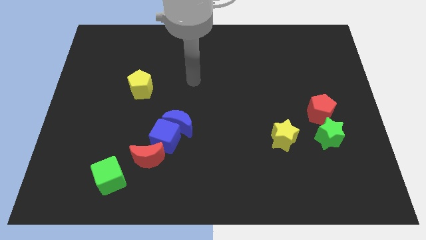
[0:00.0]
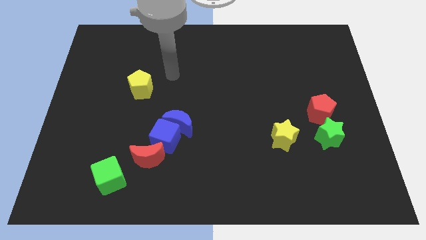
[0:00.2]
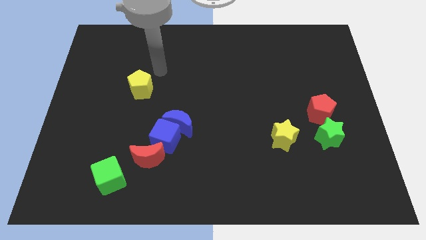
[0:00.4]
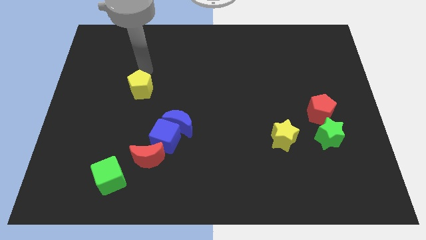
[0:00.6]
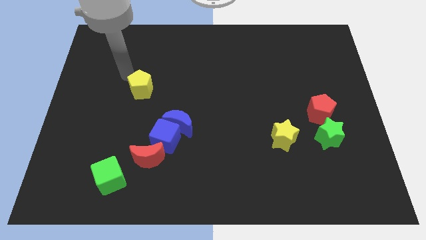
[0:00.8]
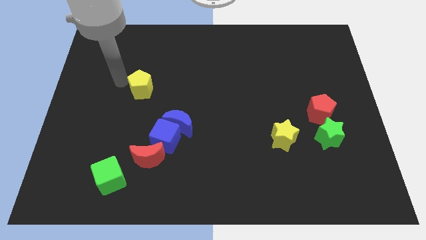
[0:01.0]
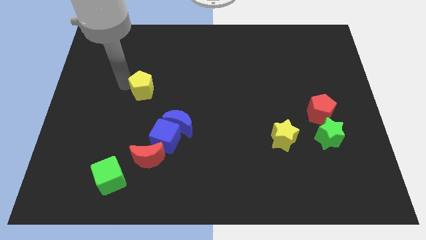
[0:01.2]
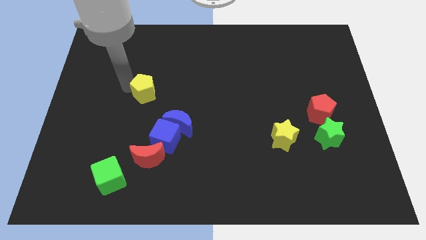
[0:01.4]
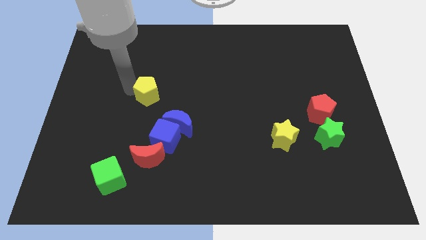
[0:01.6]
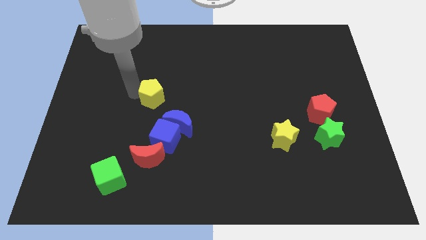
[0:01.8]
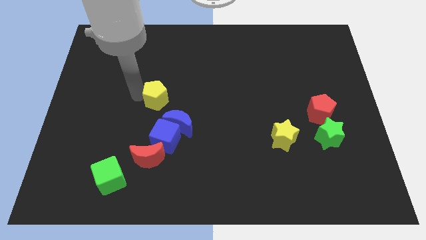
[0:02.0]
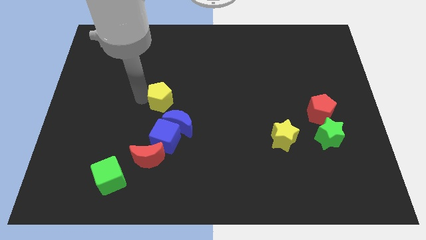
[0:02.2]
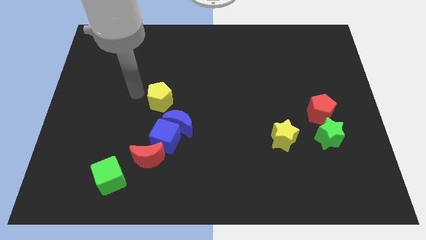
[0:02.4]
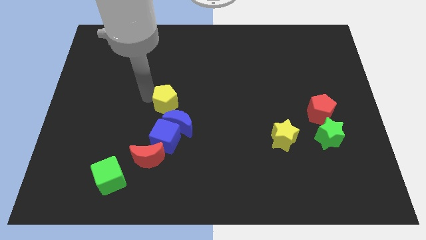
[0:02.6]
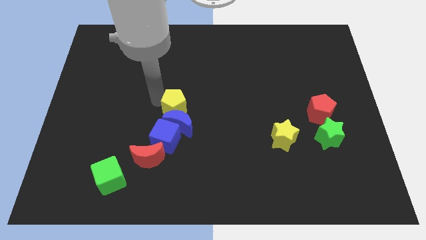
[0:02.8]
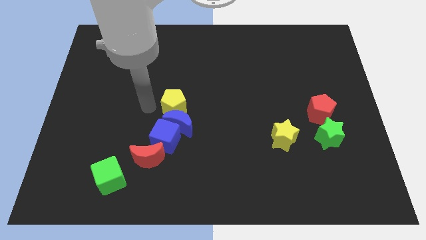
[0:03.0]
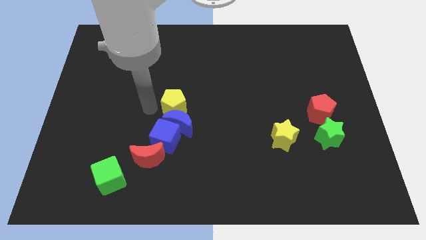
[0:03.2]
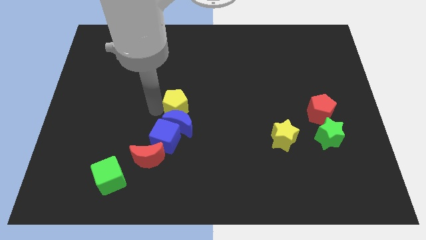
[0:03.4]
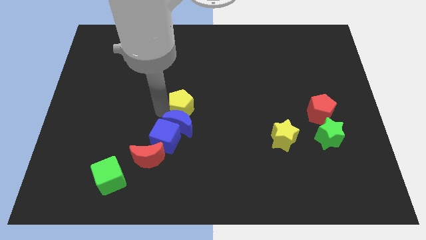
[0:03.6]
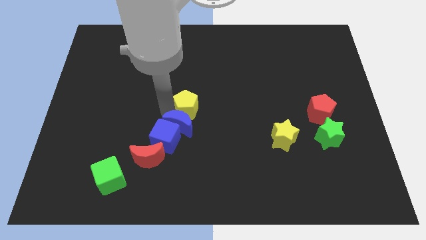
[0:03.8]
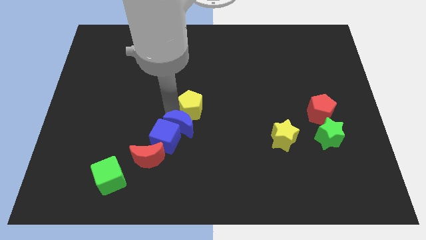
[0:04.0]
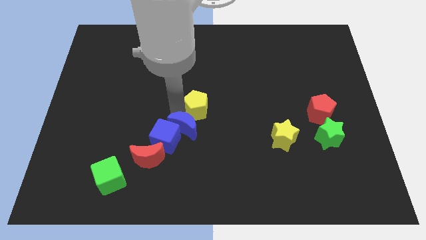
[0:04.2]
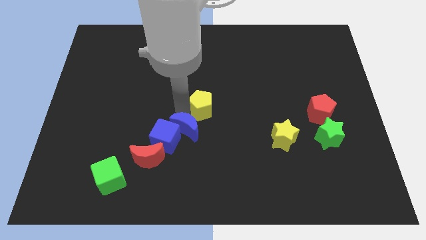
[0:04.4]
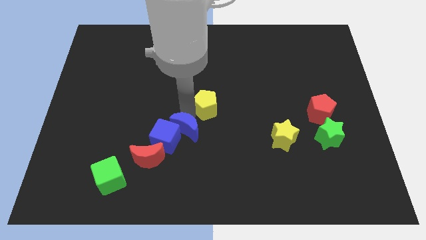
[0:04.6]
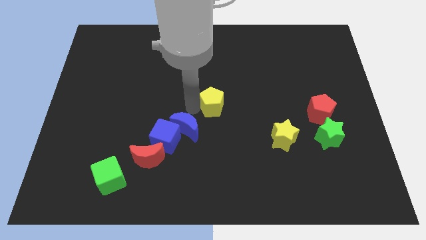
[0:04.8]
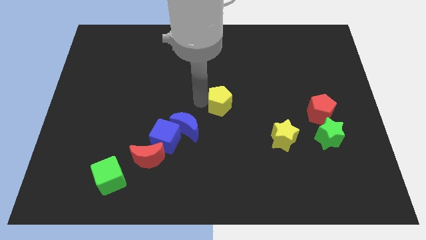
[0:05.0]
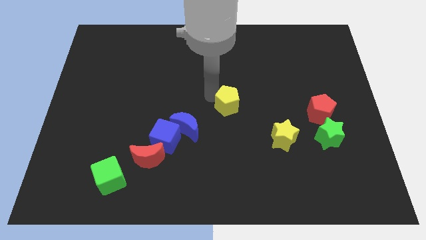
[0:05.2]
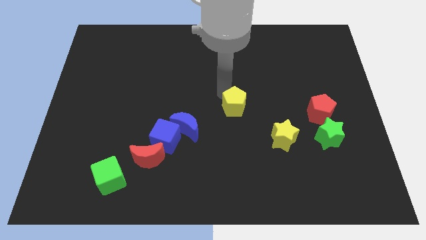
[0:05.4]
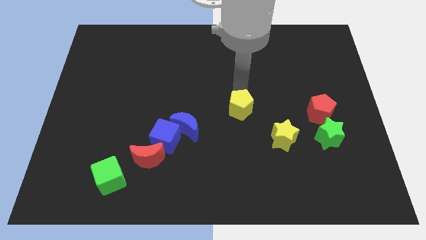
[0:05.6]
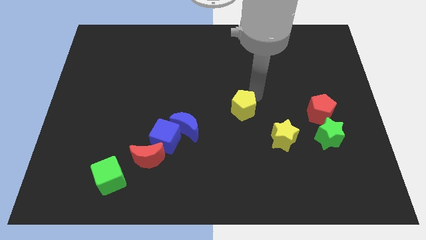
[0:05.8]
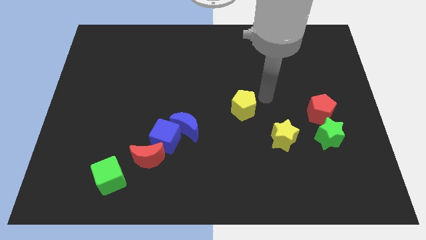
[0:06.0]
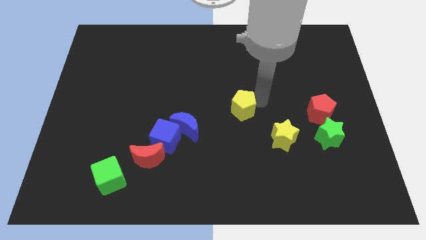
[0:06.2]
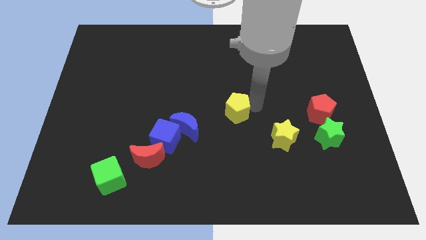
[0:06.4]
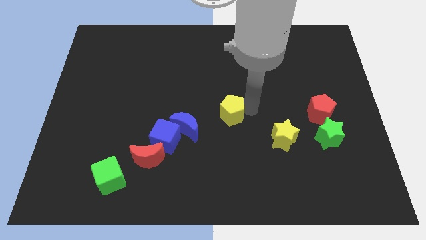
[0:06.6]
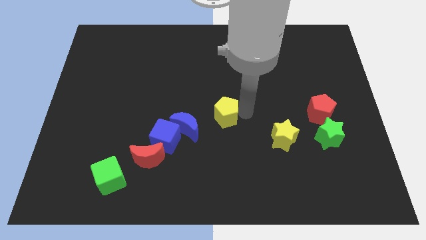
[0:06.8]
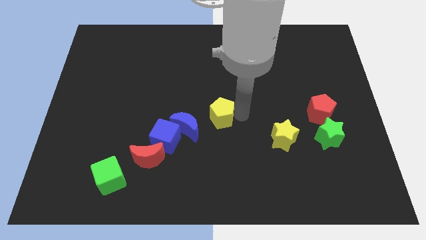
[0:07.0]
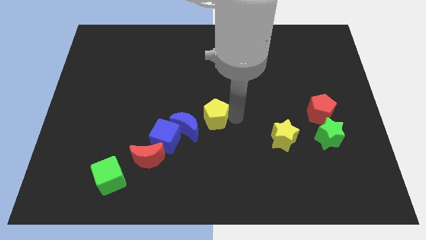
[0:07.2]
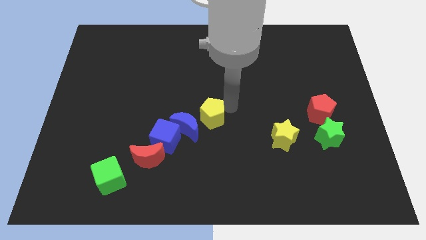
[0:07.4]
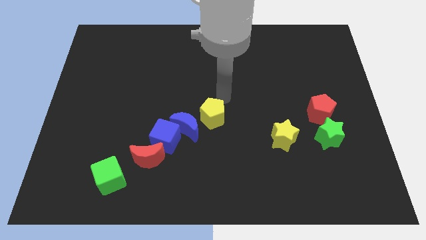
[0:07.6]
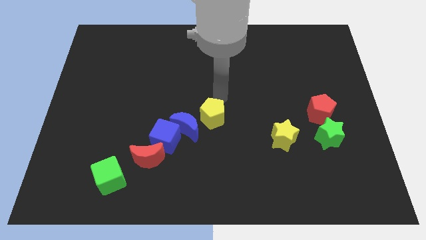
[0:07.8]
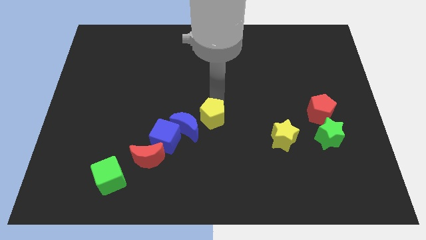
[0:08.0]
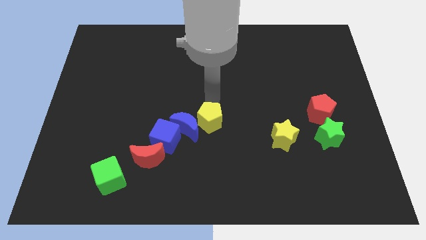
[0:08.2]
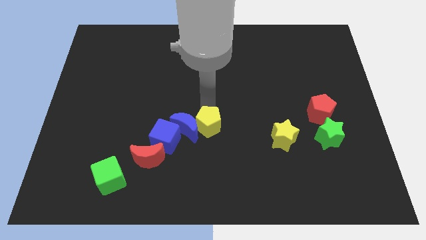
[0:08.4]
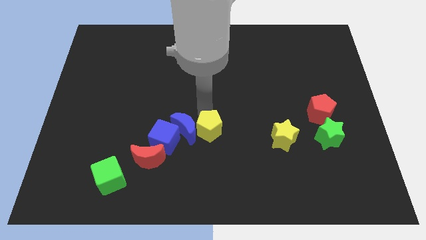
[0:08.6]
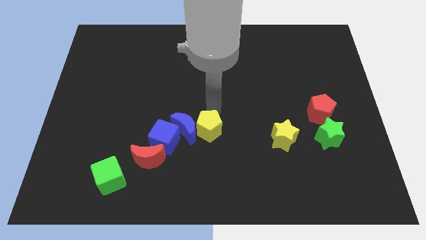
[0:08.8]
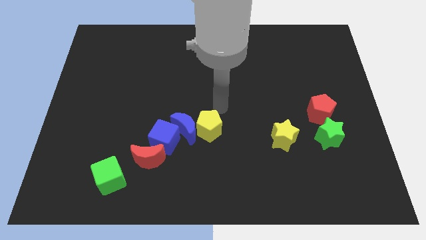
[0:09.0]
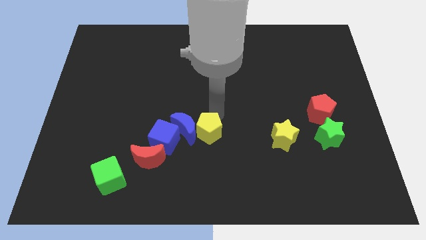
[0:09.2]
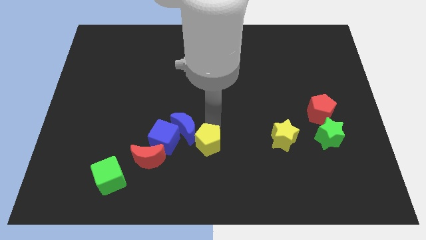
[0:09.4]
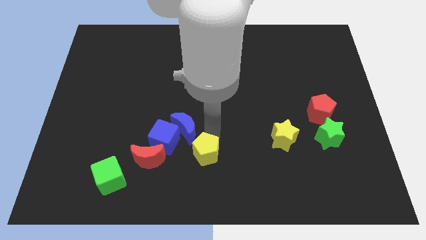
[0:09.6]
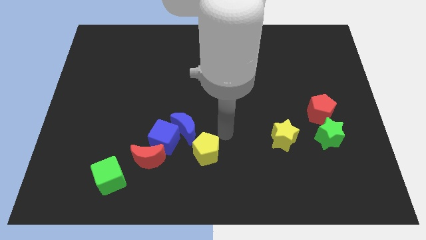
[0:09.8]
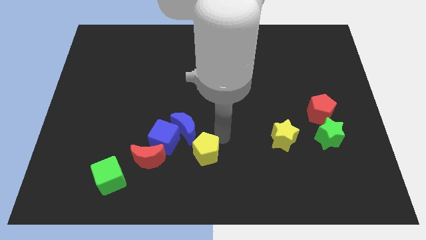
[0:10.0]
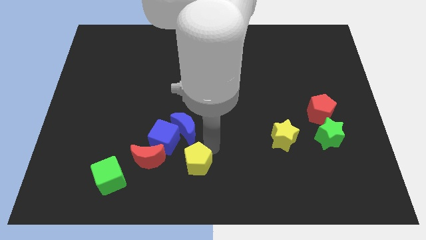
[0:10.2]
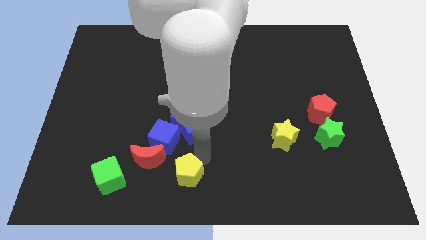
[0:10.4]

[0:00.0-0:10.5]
move the yellow pentagon to the bottom right side of the red moon

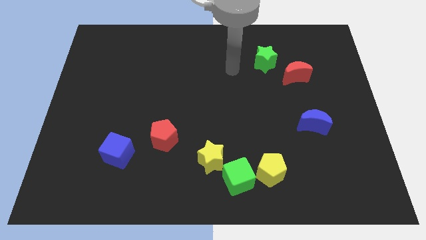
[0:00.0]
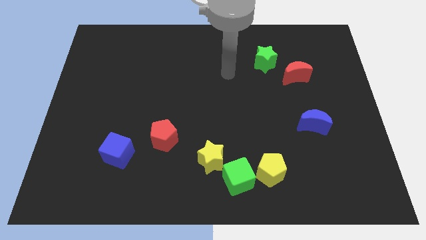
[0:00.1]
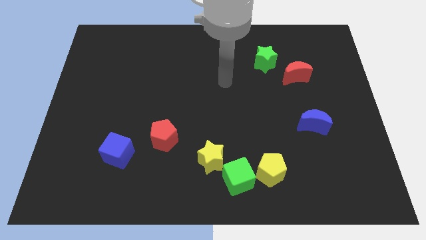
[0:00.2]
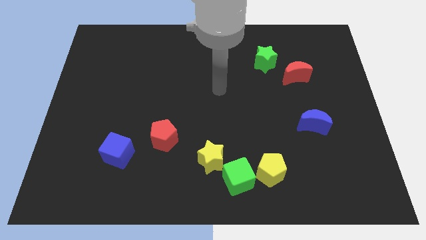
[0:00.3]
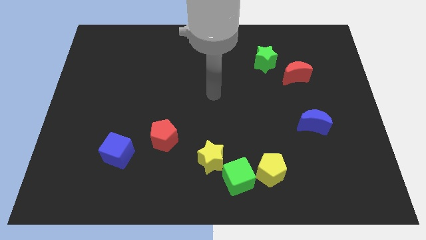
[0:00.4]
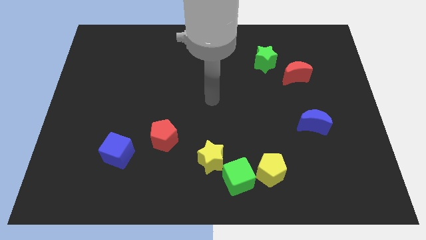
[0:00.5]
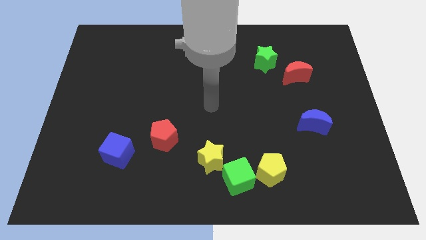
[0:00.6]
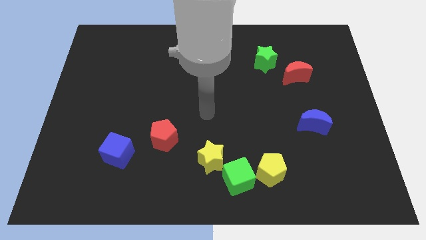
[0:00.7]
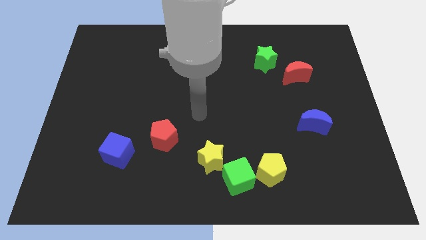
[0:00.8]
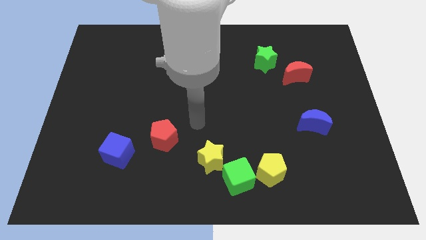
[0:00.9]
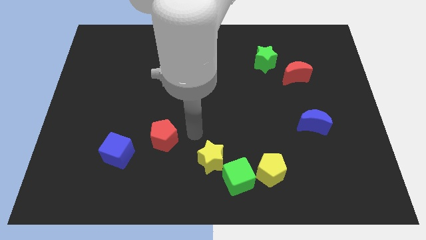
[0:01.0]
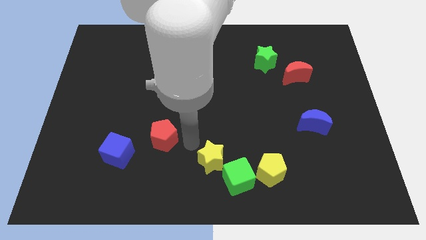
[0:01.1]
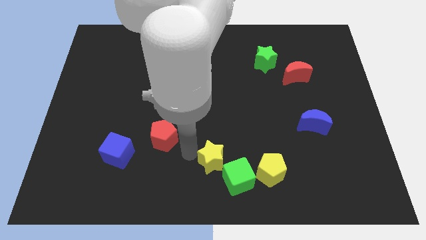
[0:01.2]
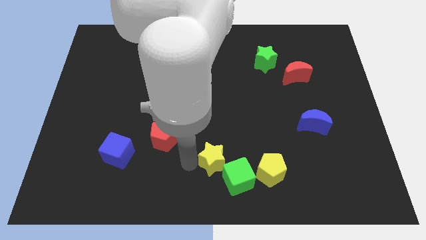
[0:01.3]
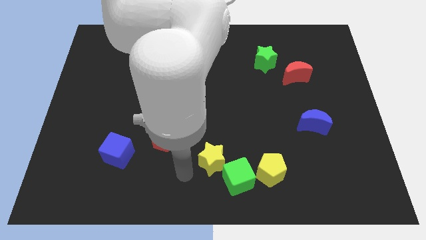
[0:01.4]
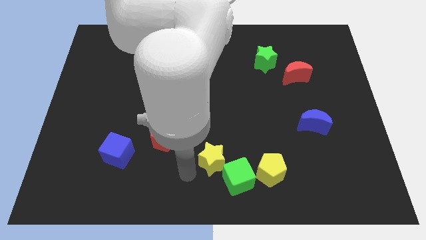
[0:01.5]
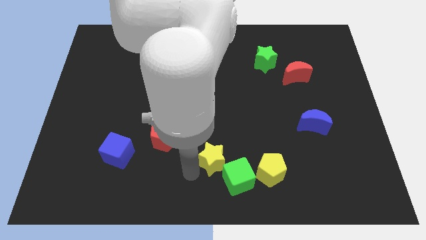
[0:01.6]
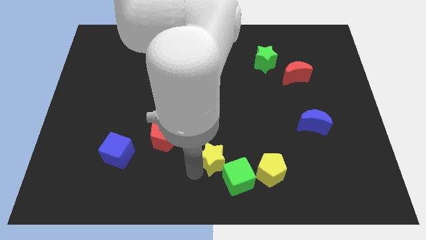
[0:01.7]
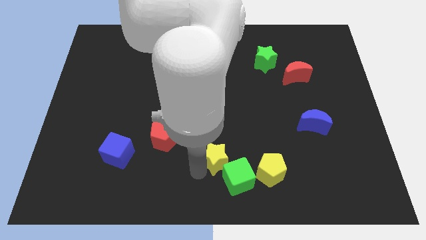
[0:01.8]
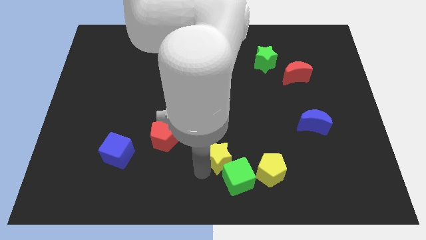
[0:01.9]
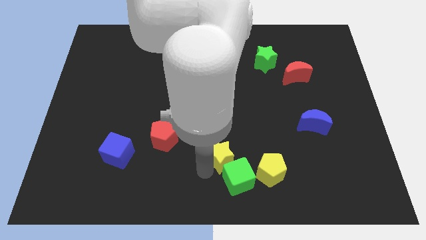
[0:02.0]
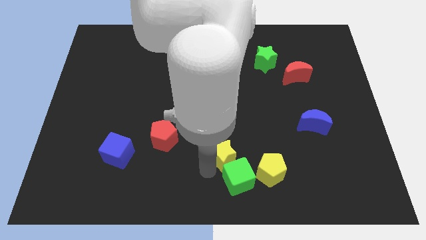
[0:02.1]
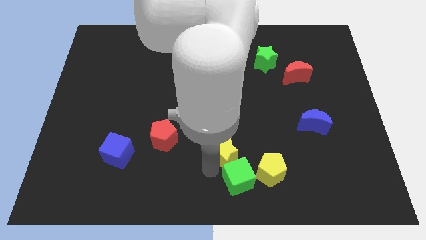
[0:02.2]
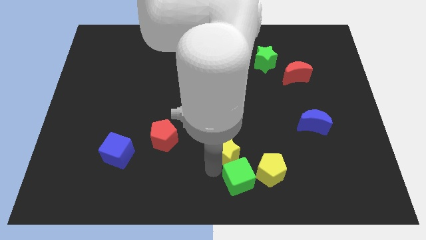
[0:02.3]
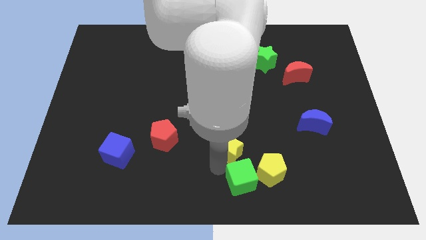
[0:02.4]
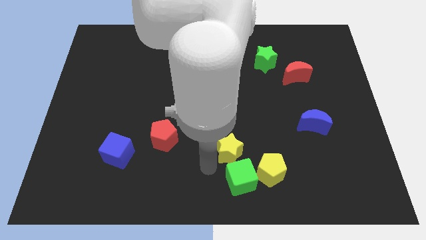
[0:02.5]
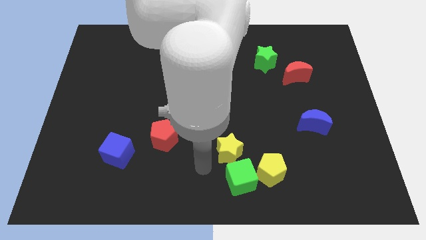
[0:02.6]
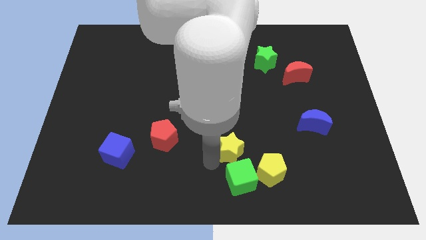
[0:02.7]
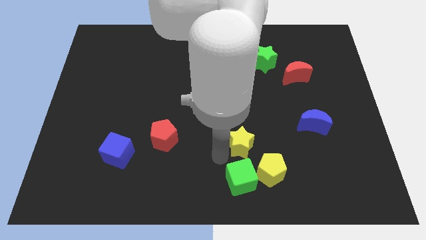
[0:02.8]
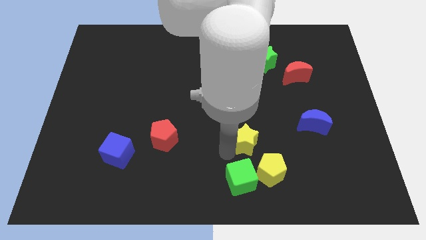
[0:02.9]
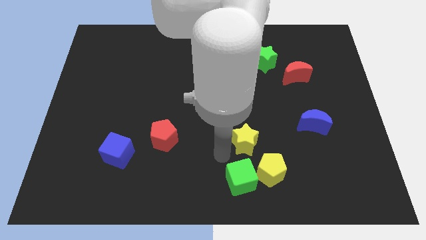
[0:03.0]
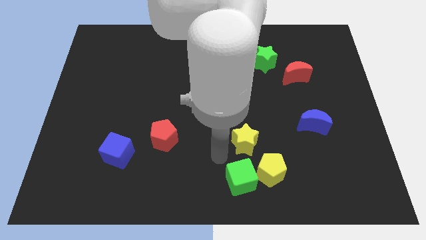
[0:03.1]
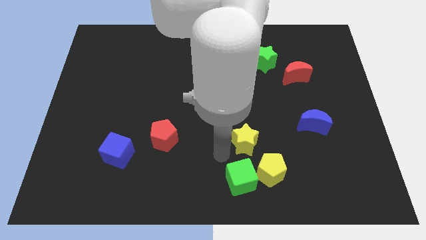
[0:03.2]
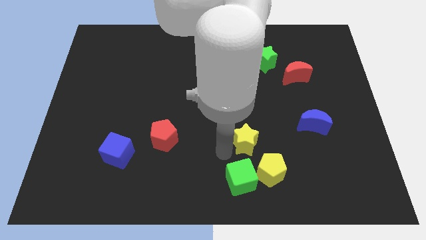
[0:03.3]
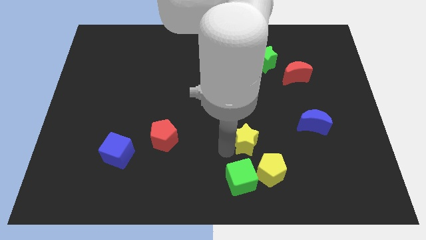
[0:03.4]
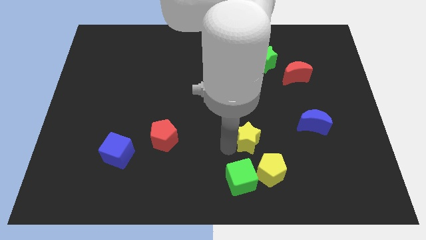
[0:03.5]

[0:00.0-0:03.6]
put the yellow star to the top of the yellow pentagon
